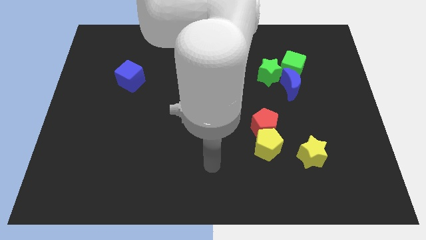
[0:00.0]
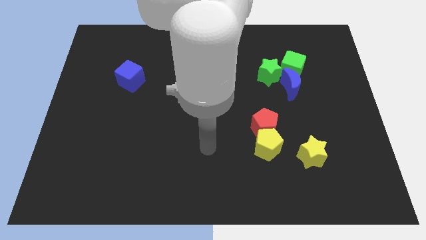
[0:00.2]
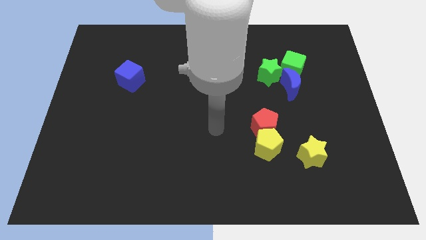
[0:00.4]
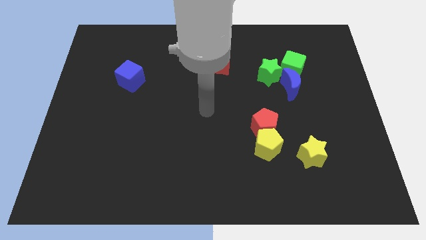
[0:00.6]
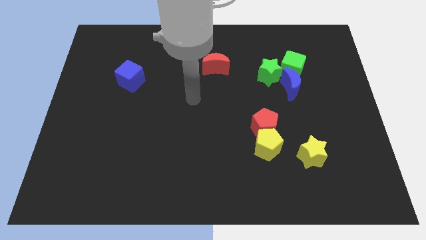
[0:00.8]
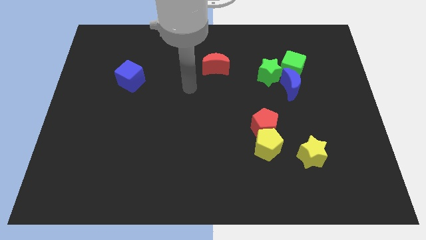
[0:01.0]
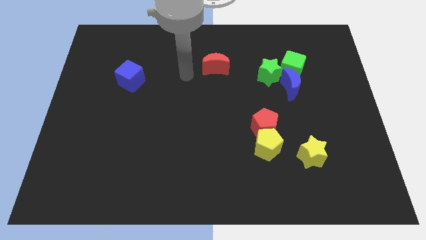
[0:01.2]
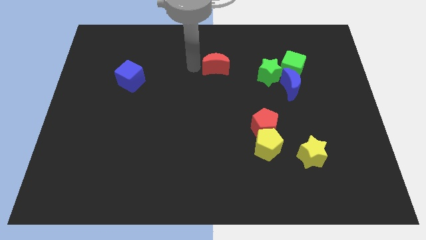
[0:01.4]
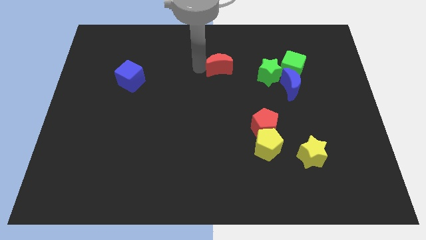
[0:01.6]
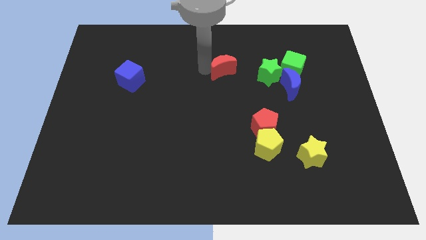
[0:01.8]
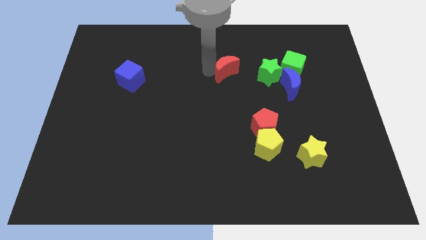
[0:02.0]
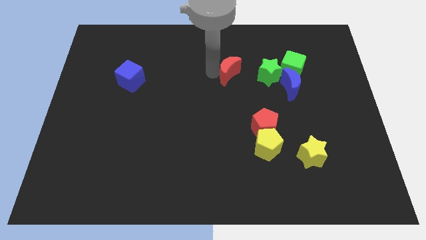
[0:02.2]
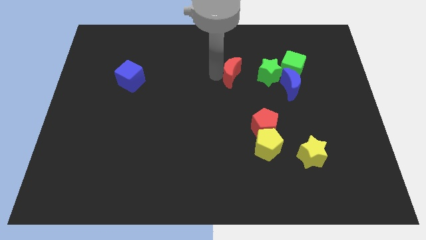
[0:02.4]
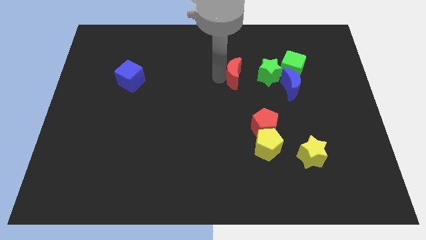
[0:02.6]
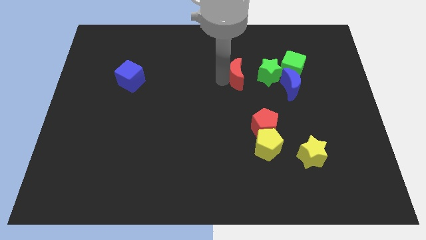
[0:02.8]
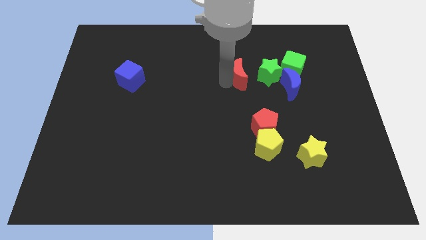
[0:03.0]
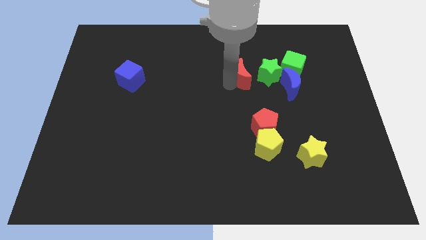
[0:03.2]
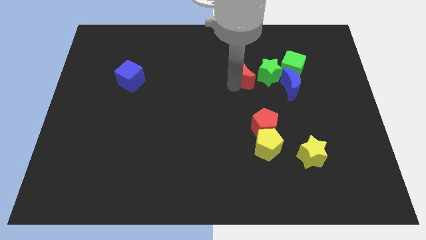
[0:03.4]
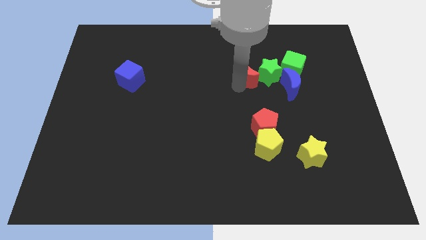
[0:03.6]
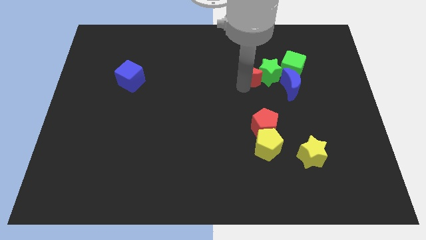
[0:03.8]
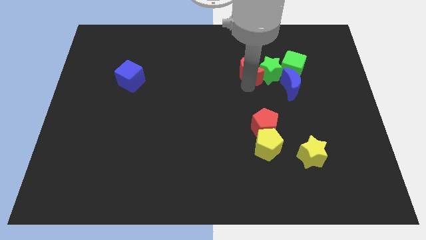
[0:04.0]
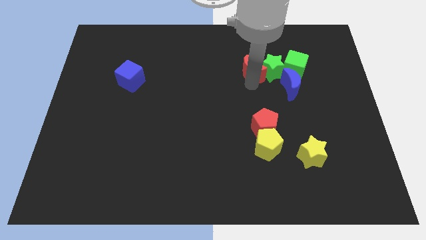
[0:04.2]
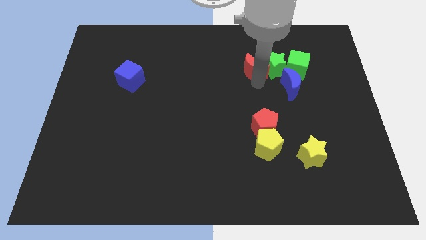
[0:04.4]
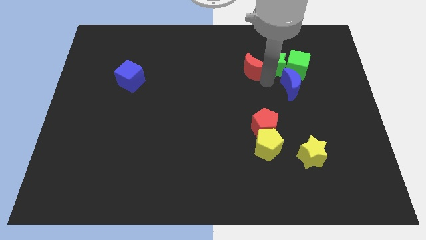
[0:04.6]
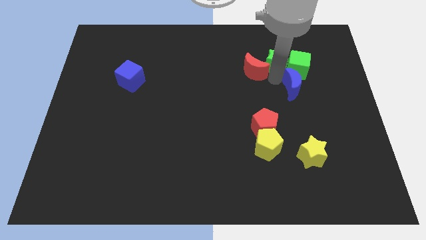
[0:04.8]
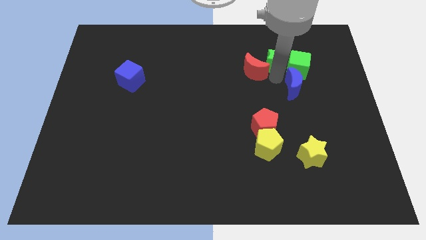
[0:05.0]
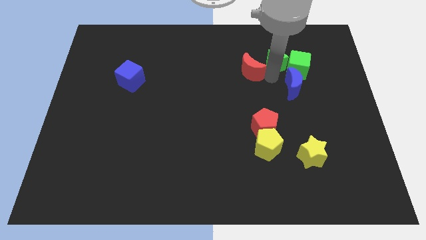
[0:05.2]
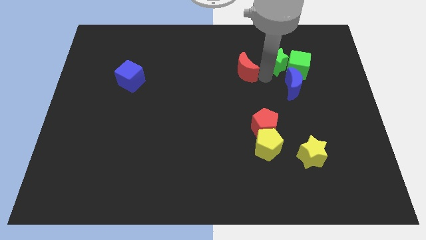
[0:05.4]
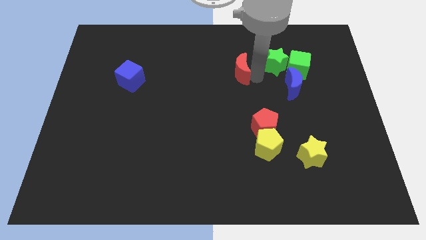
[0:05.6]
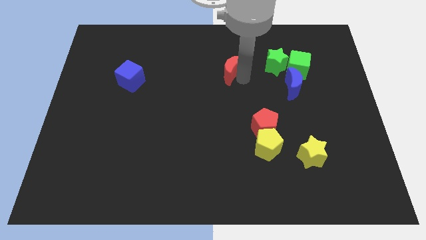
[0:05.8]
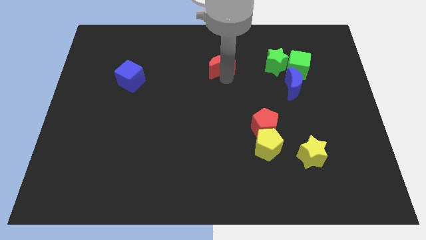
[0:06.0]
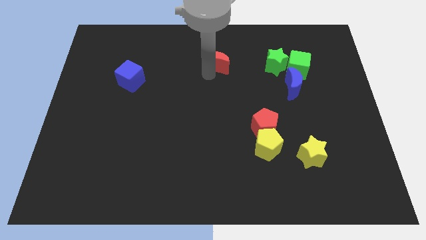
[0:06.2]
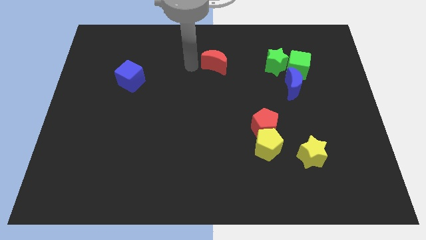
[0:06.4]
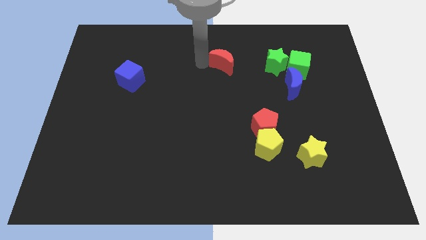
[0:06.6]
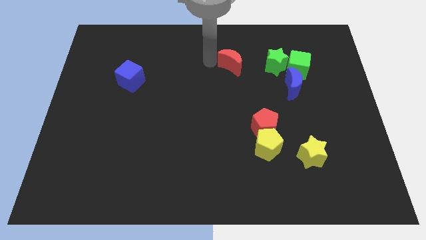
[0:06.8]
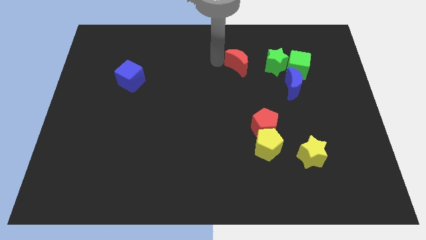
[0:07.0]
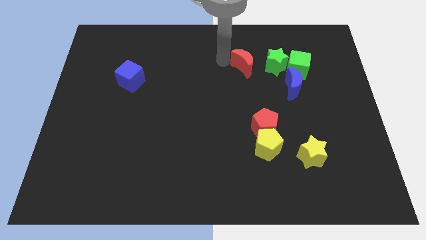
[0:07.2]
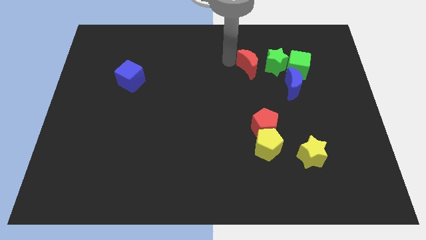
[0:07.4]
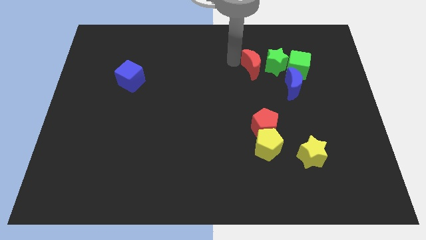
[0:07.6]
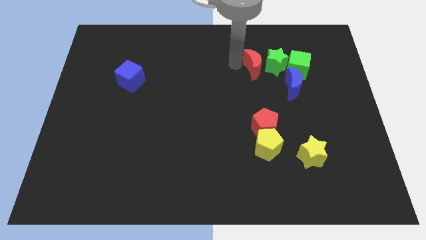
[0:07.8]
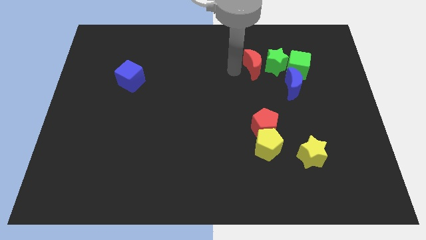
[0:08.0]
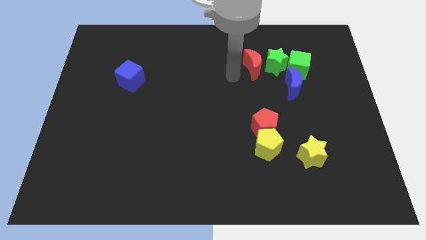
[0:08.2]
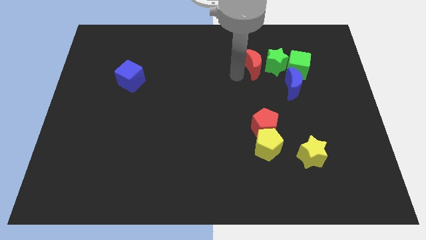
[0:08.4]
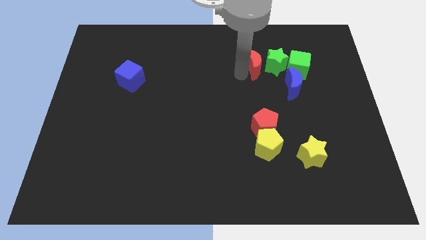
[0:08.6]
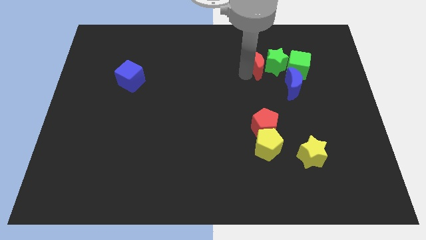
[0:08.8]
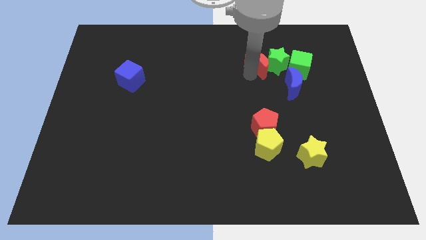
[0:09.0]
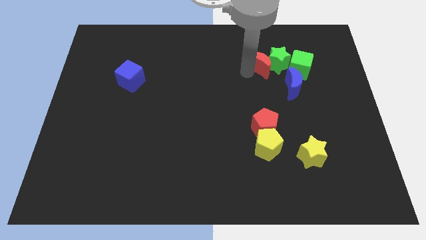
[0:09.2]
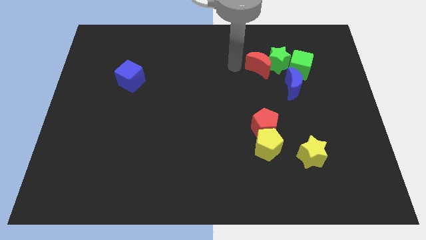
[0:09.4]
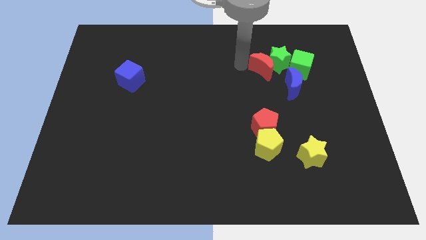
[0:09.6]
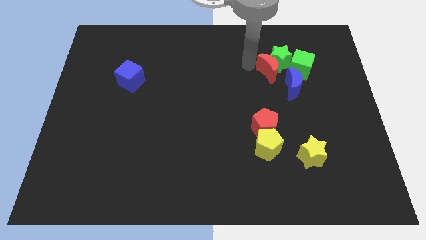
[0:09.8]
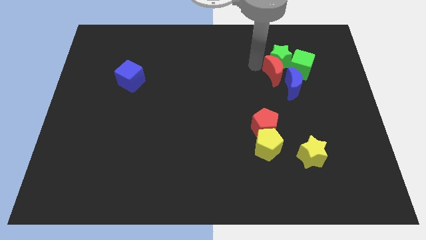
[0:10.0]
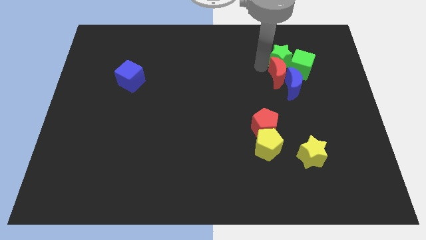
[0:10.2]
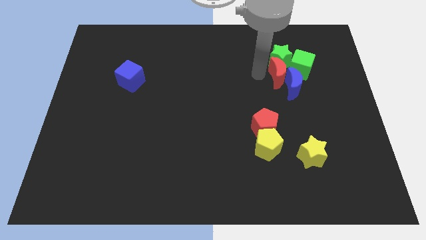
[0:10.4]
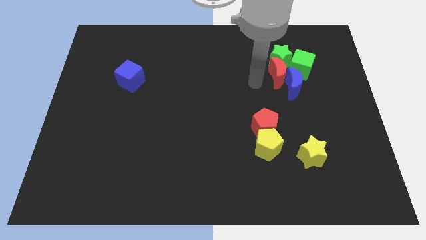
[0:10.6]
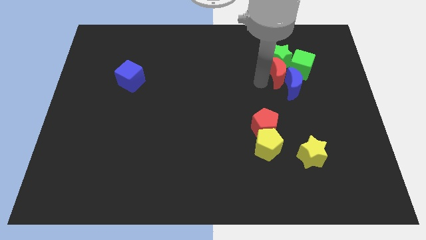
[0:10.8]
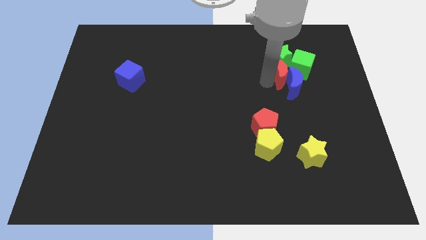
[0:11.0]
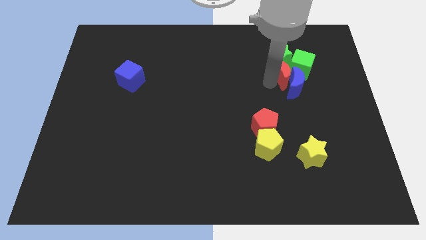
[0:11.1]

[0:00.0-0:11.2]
slide the red moon towards the green cube

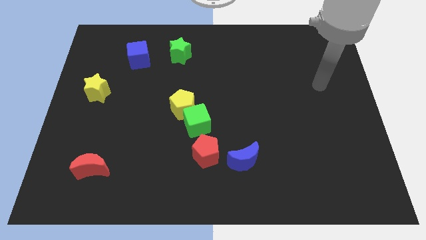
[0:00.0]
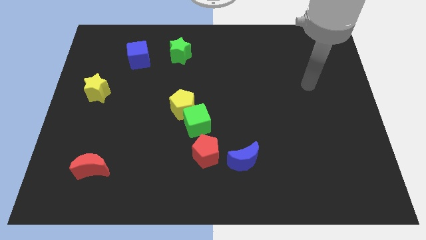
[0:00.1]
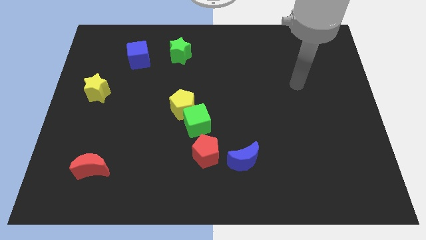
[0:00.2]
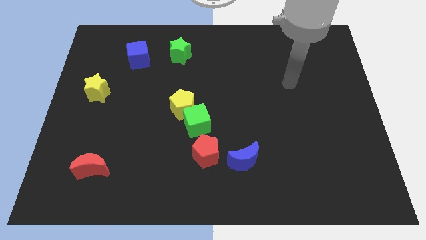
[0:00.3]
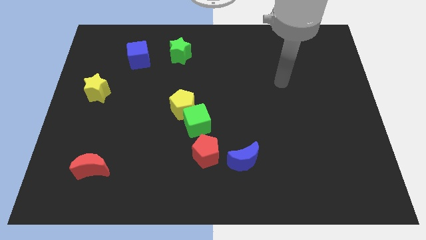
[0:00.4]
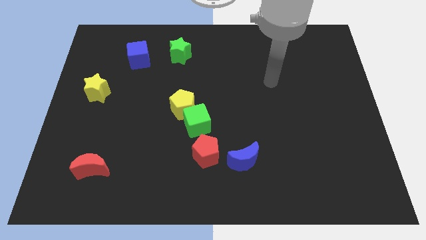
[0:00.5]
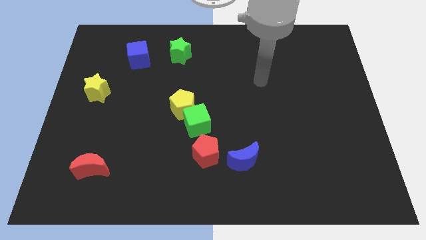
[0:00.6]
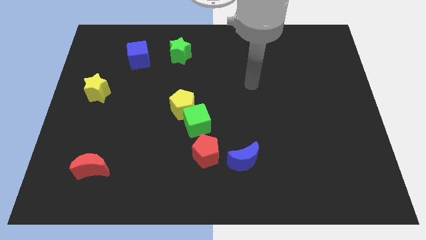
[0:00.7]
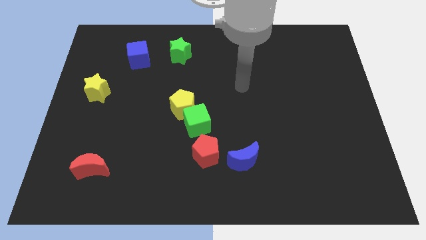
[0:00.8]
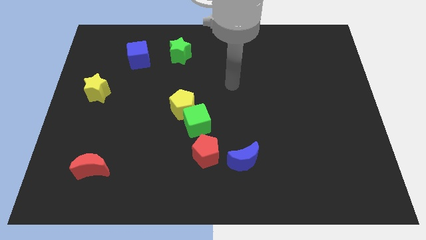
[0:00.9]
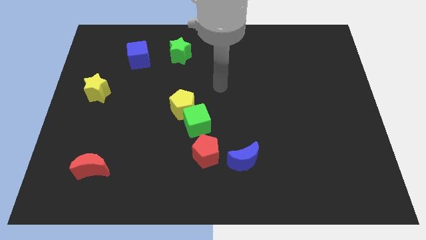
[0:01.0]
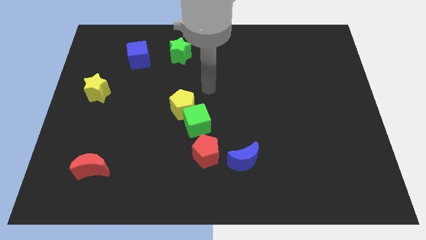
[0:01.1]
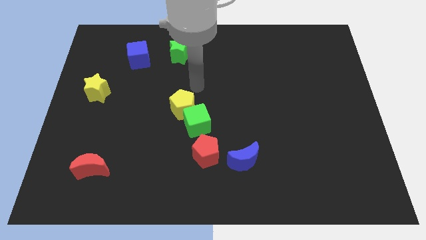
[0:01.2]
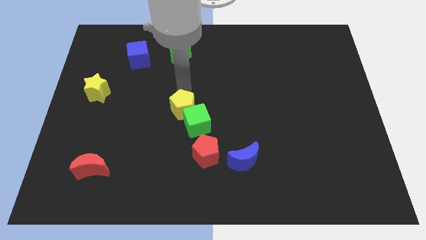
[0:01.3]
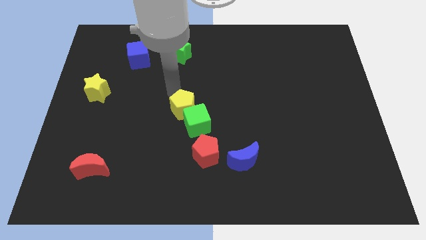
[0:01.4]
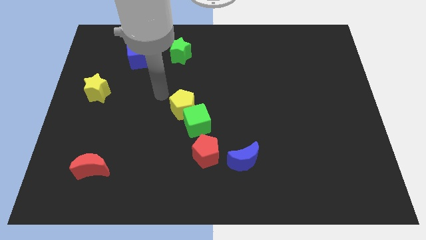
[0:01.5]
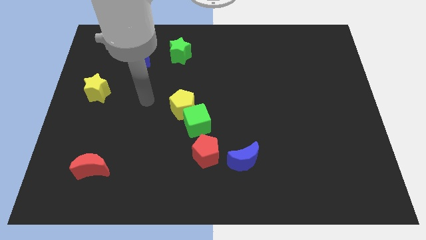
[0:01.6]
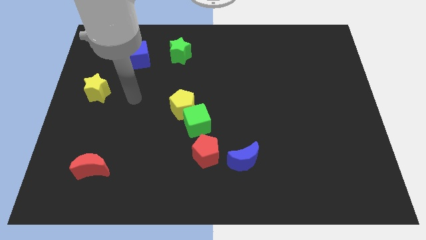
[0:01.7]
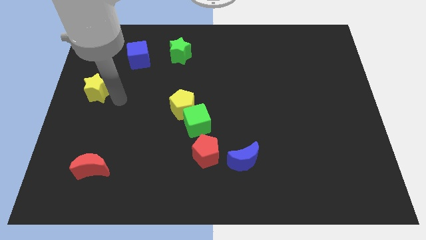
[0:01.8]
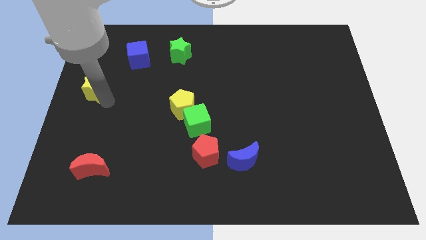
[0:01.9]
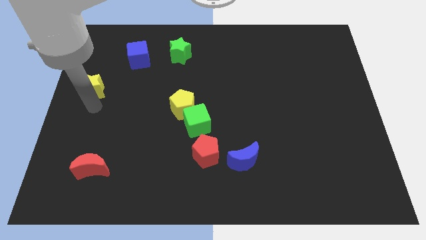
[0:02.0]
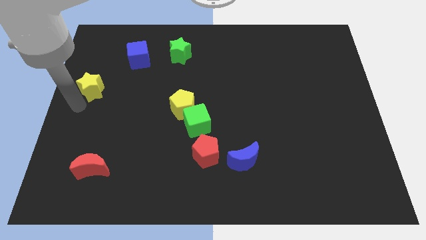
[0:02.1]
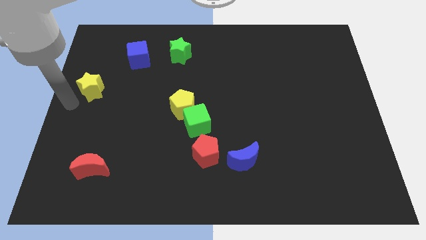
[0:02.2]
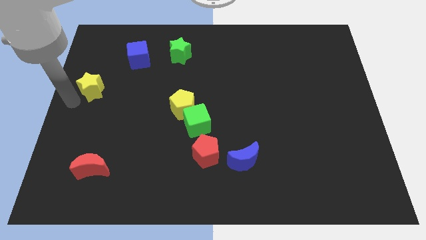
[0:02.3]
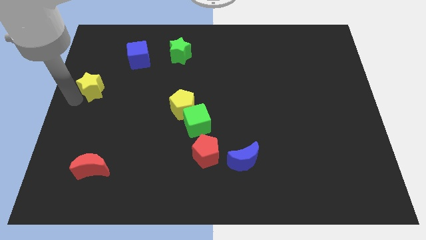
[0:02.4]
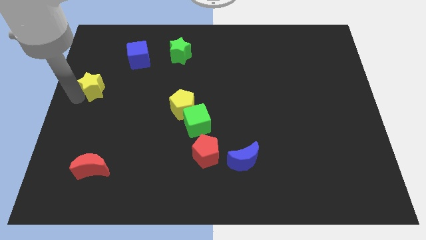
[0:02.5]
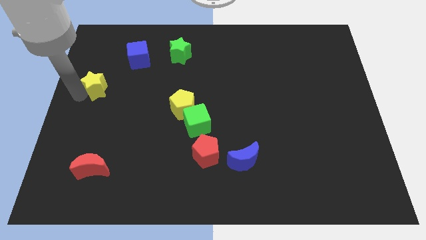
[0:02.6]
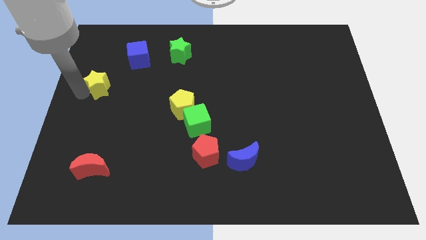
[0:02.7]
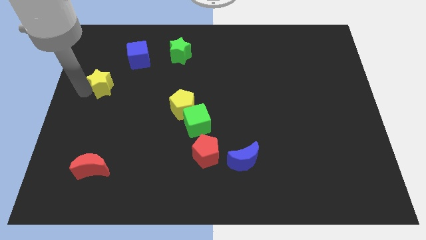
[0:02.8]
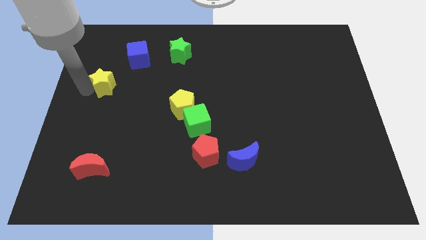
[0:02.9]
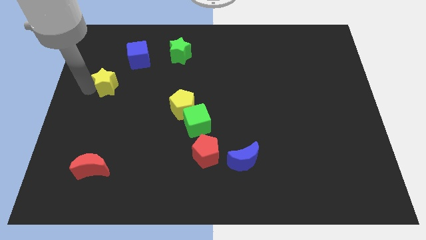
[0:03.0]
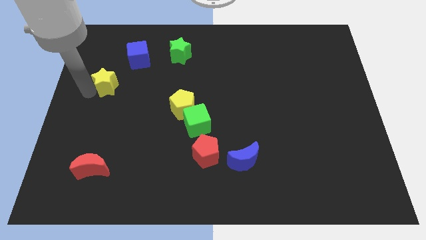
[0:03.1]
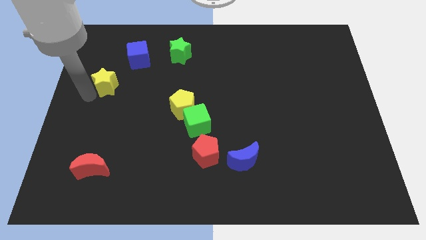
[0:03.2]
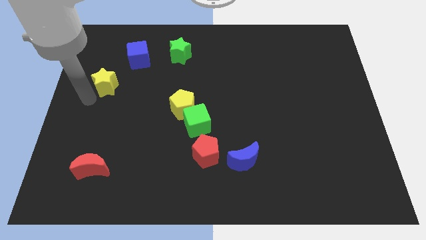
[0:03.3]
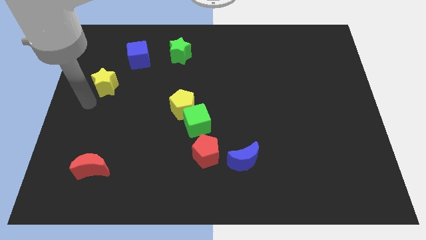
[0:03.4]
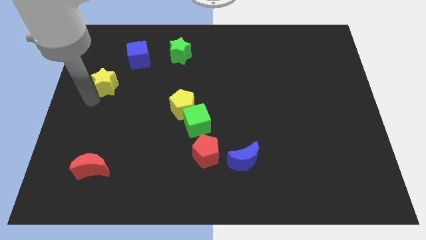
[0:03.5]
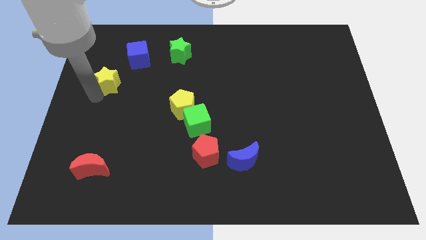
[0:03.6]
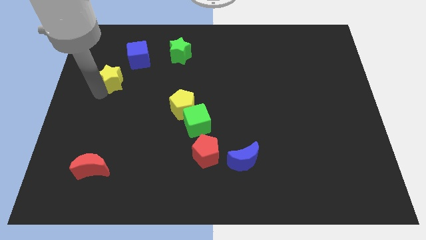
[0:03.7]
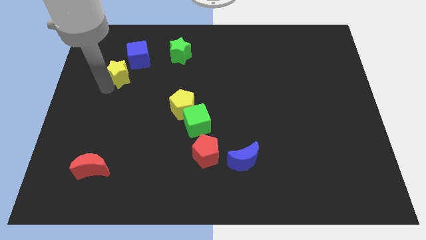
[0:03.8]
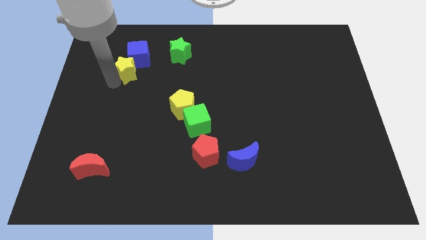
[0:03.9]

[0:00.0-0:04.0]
put the yellow star close to the blue cube
